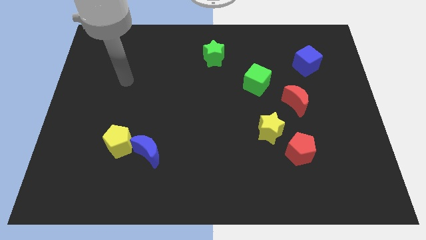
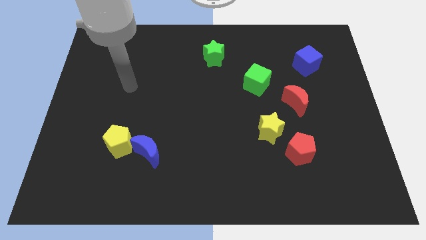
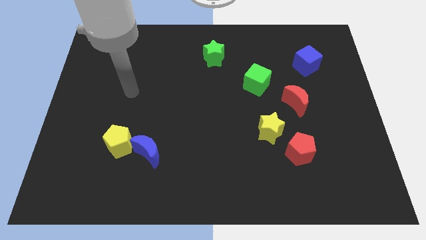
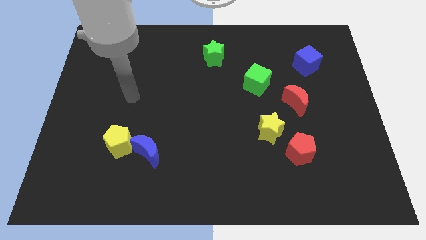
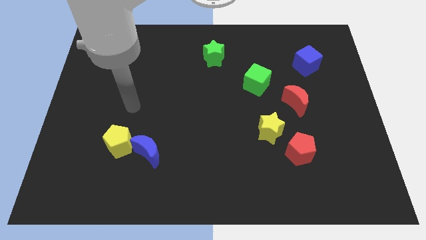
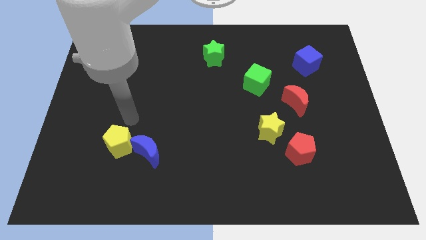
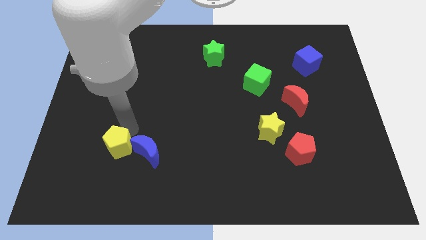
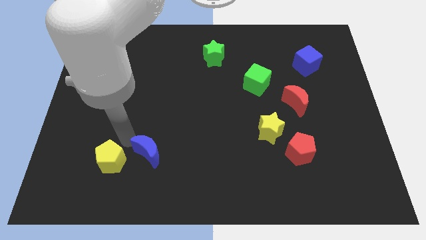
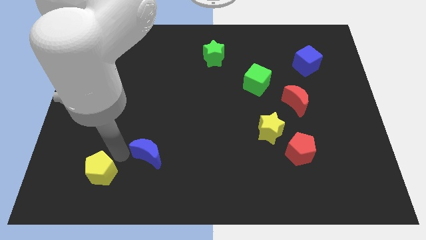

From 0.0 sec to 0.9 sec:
pull the blue moon apart from the yellow pentagon

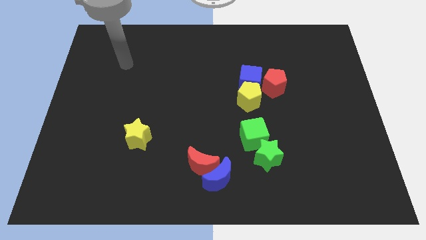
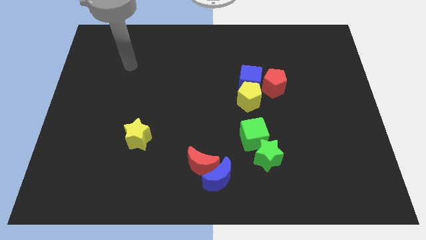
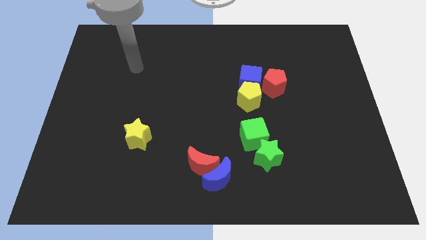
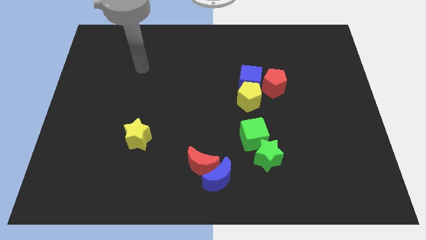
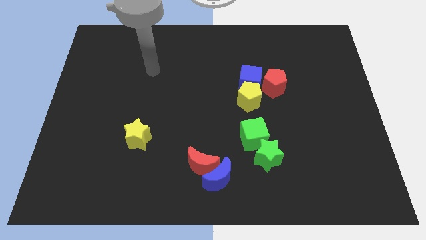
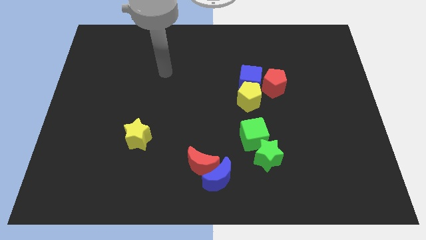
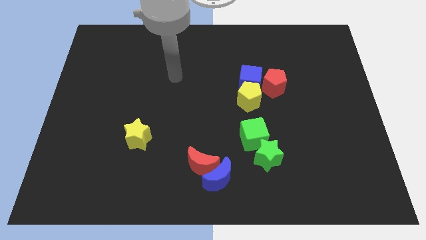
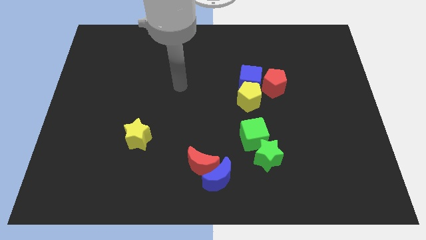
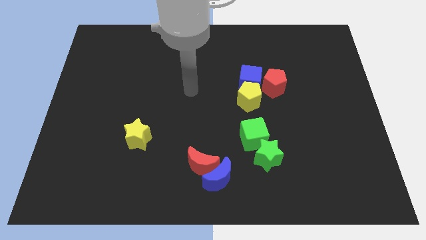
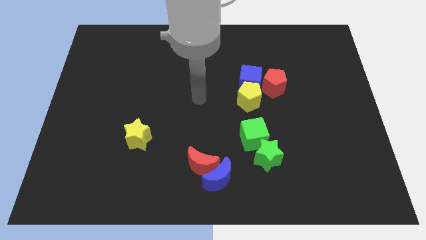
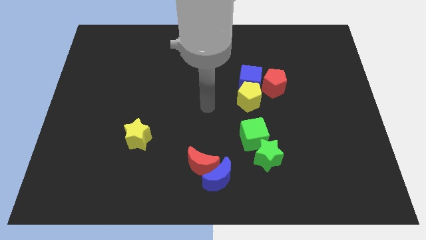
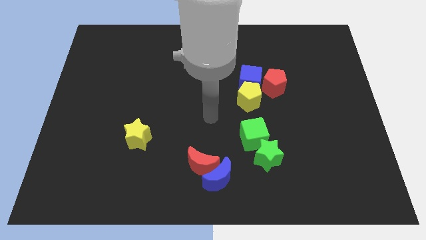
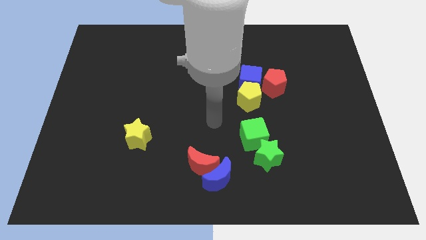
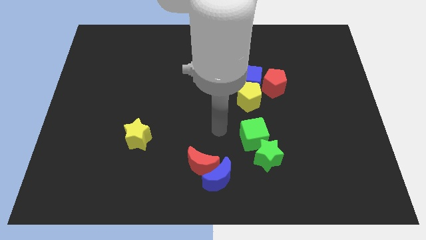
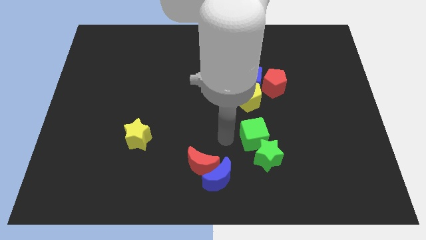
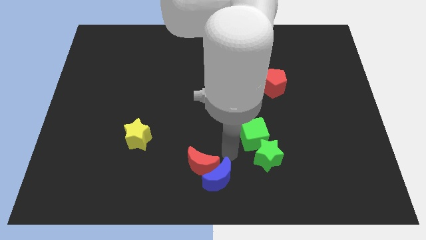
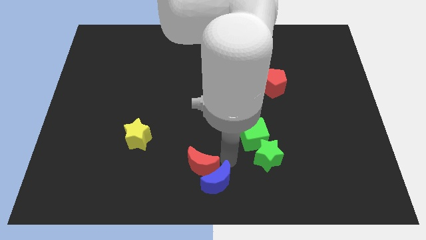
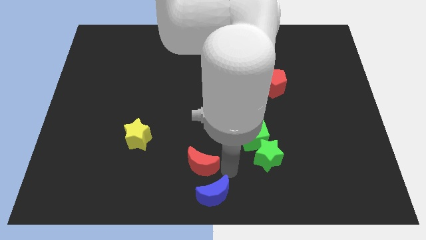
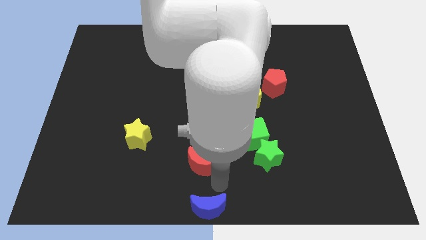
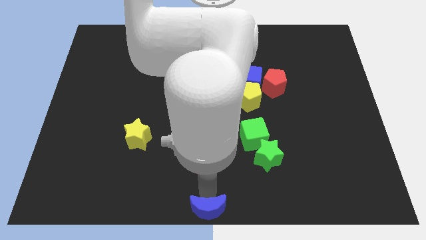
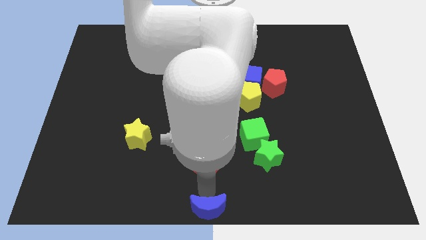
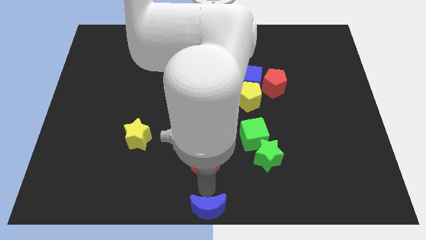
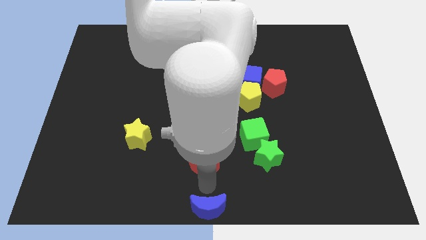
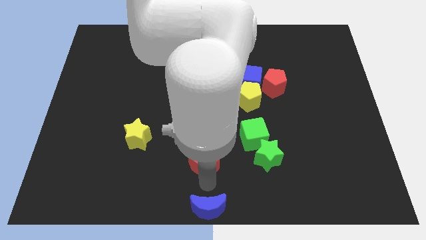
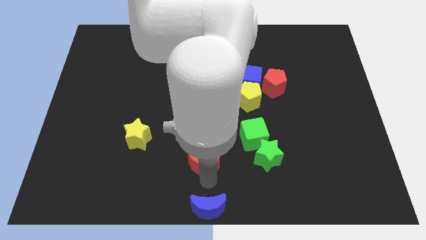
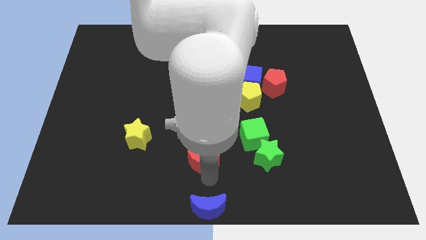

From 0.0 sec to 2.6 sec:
pull the red moon apart from the blue moon

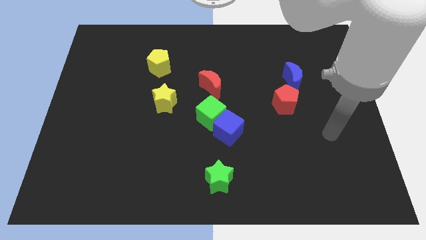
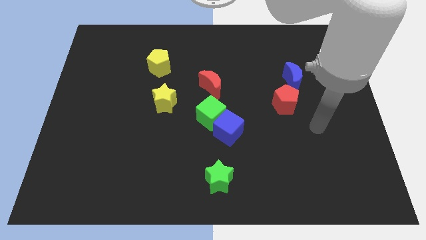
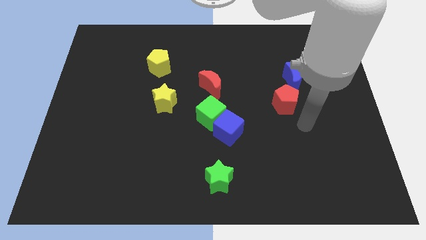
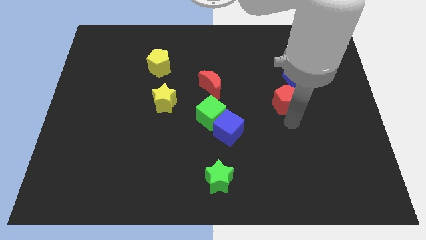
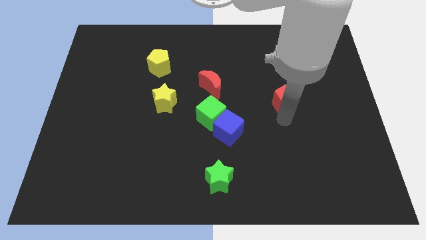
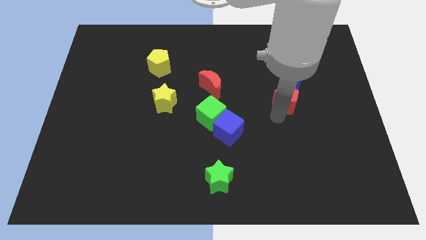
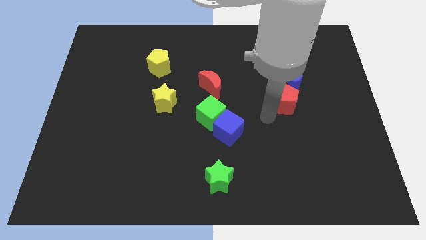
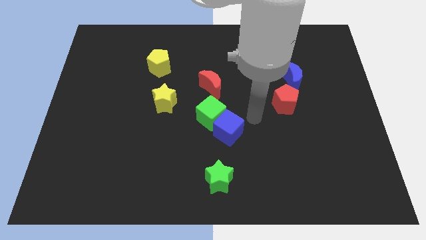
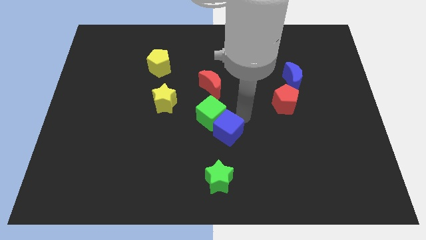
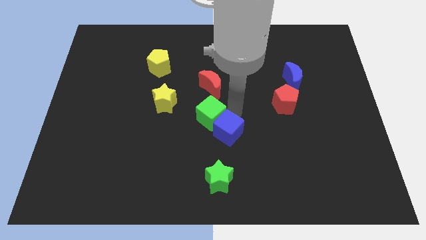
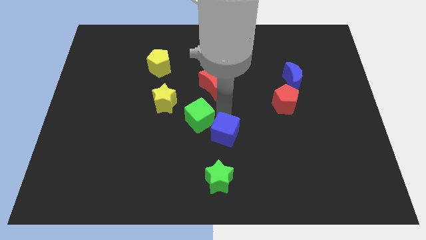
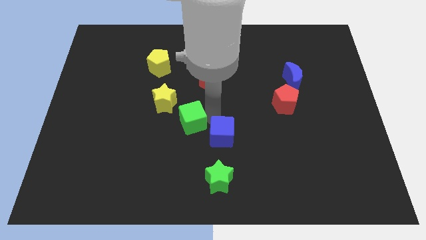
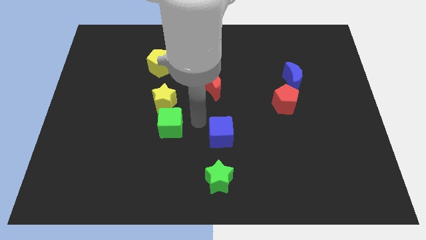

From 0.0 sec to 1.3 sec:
pull the blue cube apart from the green cube

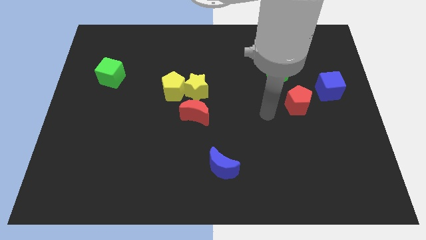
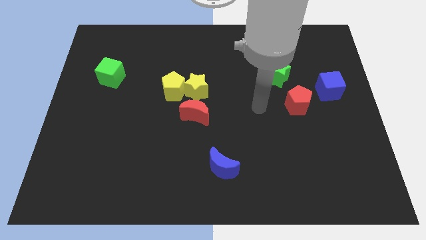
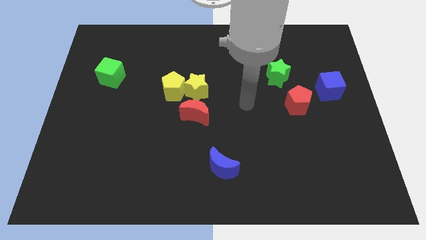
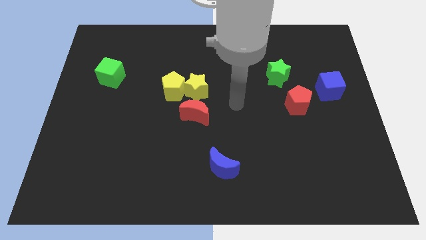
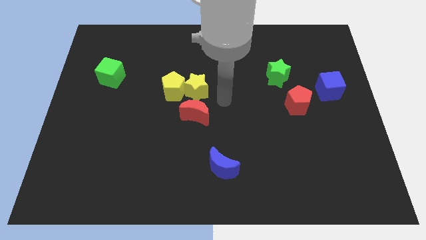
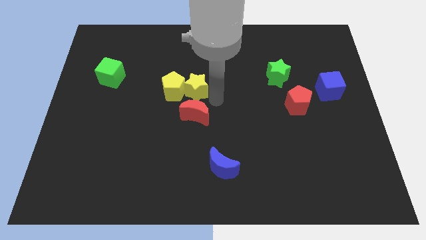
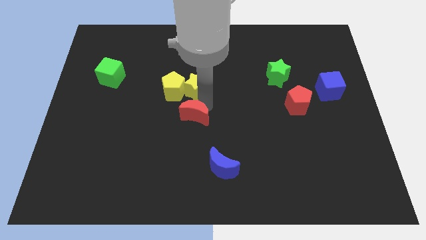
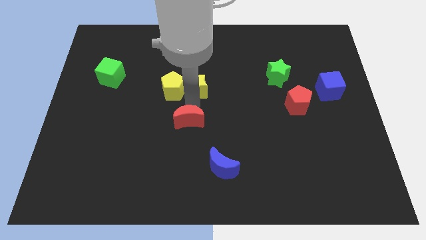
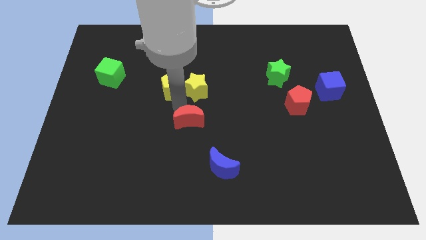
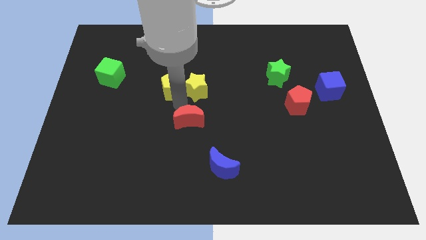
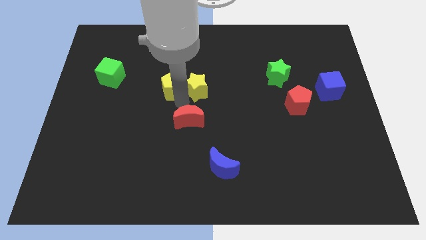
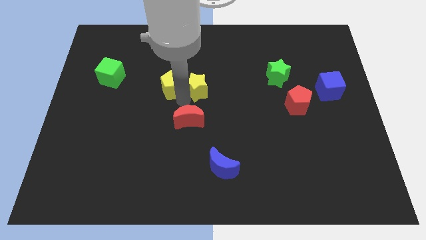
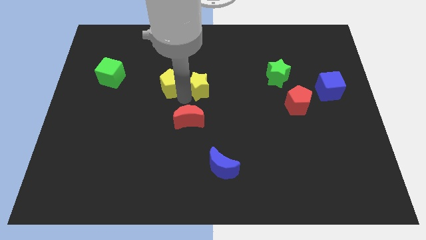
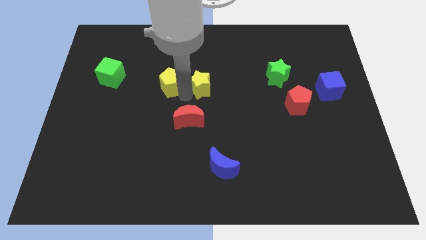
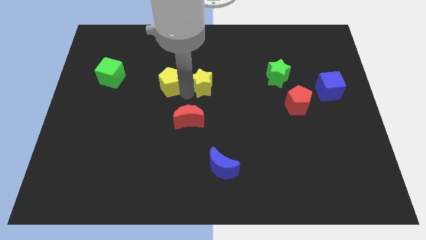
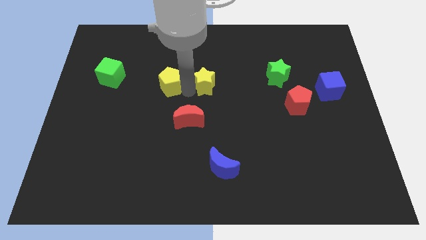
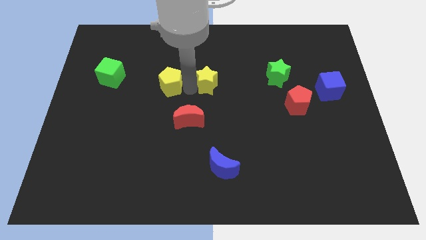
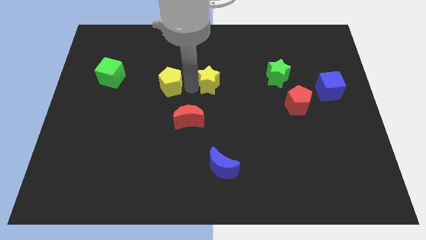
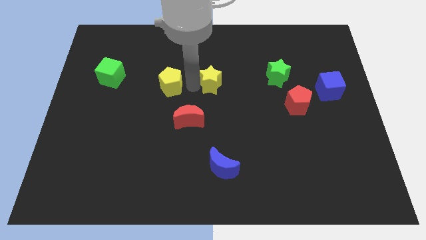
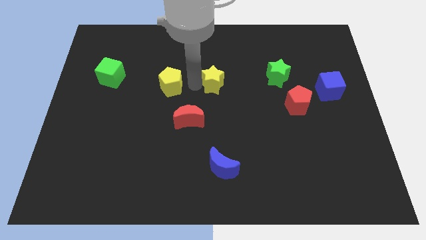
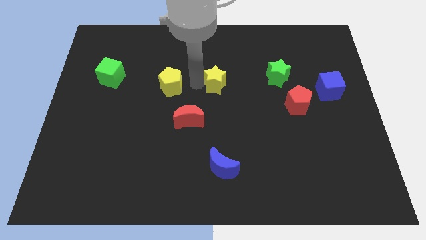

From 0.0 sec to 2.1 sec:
separate the yellow star from the yellow pentagon and red moon

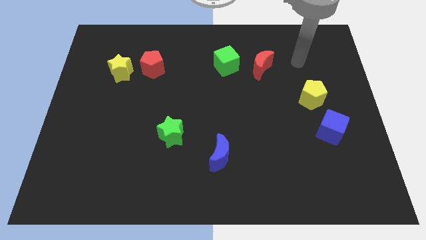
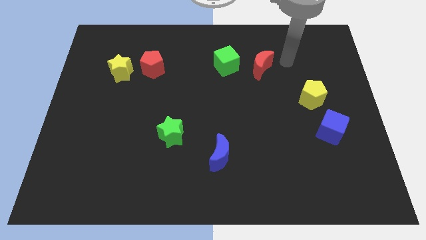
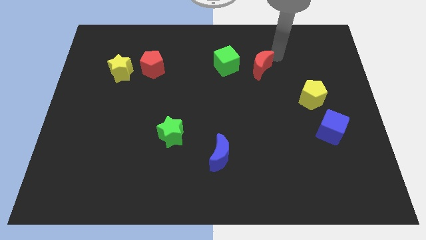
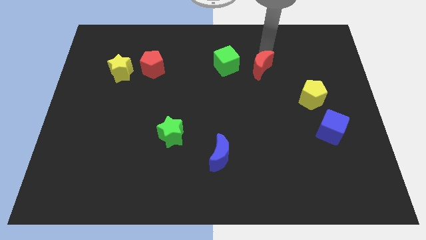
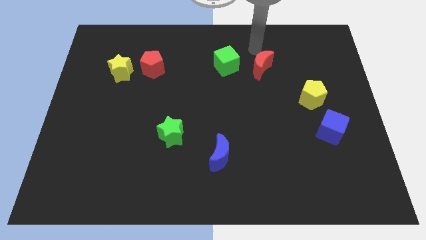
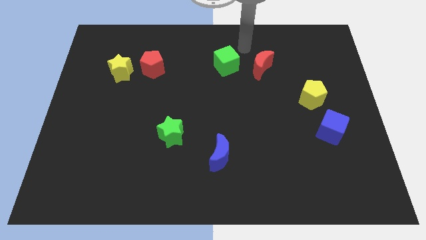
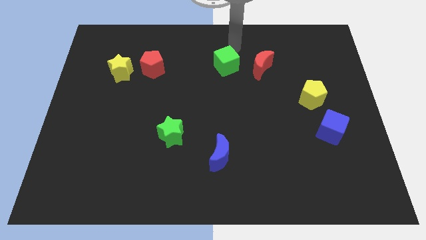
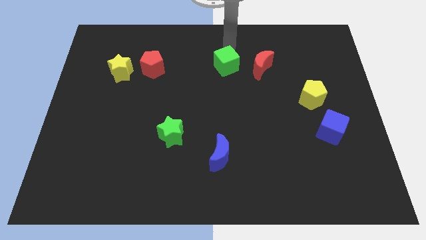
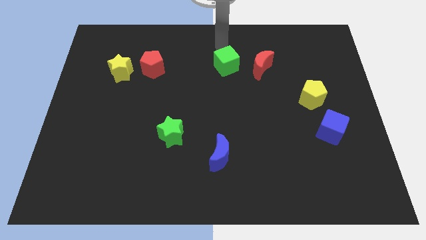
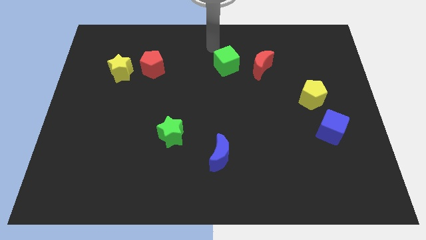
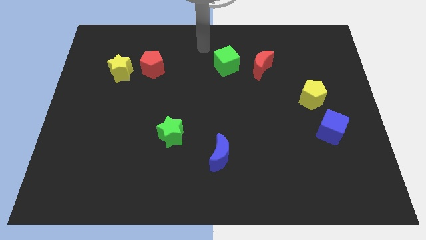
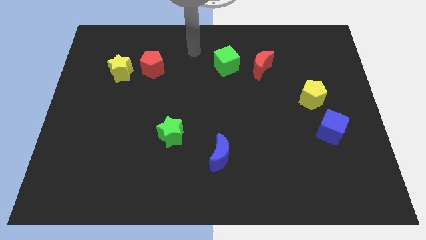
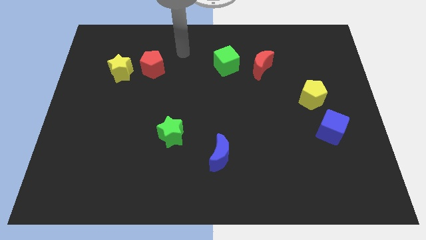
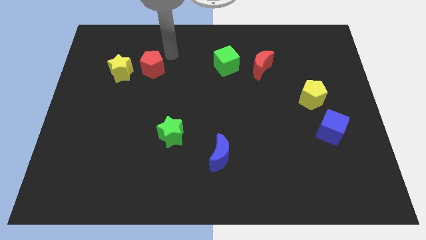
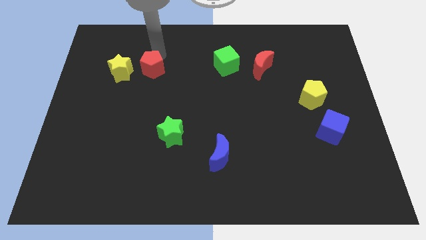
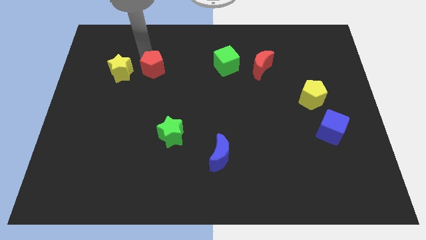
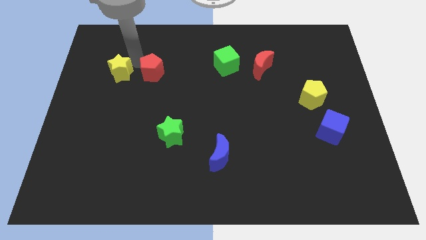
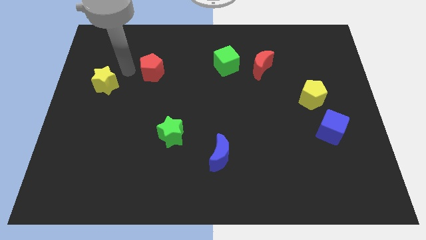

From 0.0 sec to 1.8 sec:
pull the red pentagon apart from the yellow star

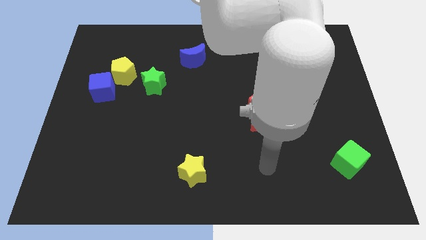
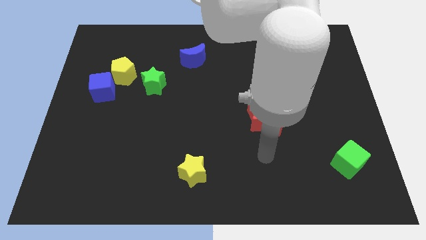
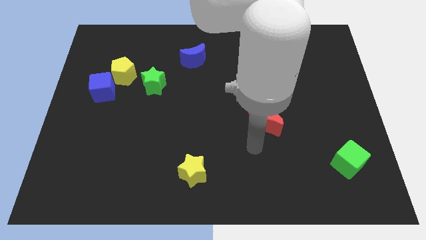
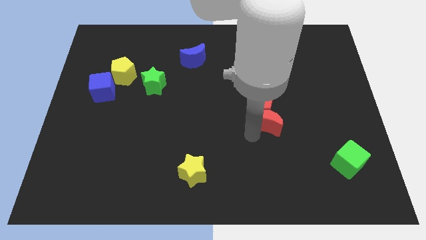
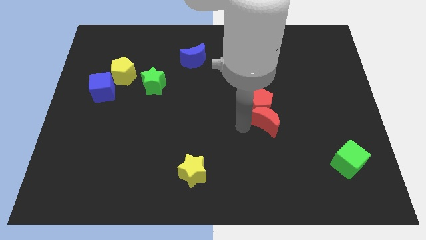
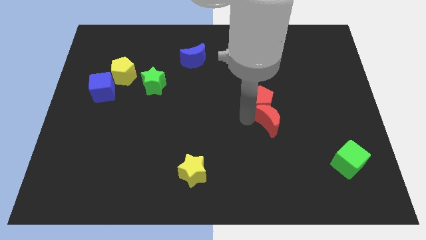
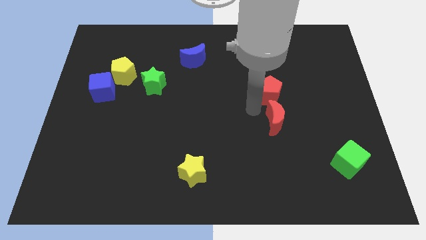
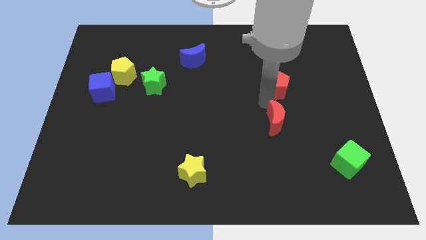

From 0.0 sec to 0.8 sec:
pull the red moon apart from the red pentagon
